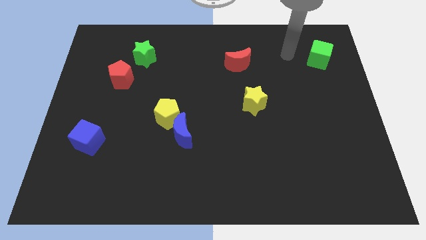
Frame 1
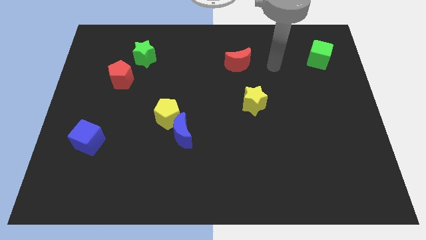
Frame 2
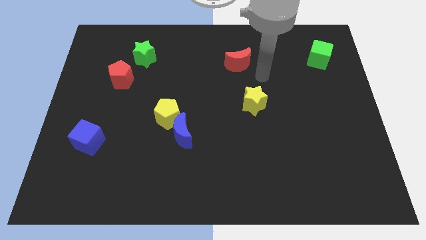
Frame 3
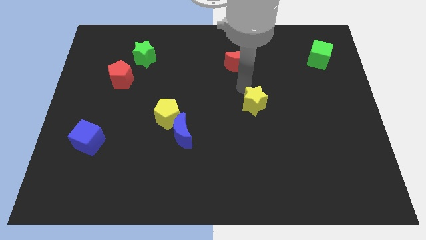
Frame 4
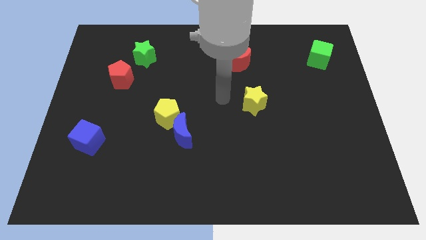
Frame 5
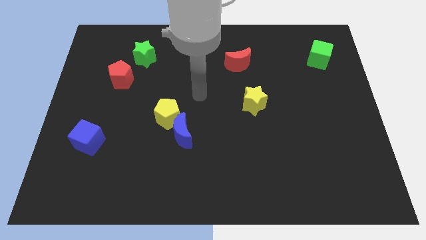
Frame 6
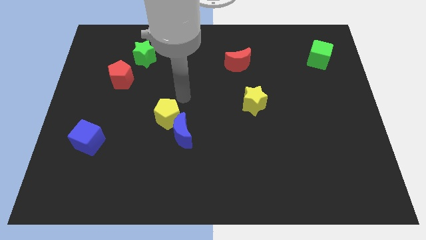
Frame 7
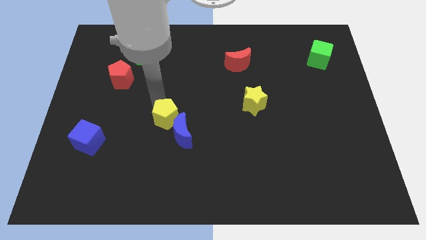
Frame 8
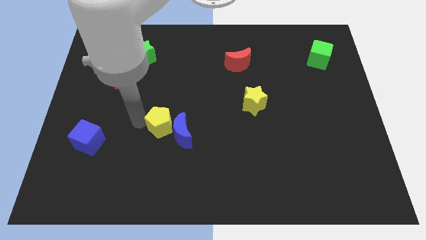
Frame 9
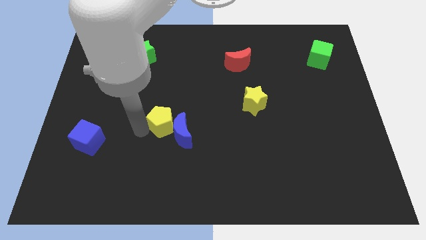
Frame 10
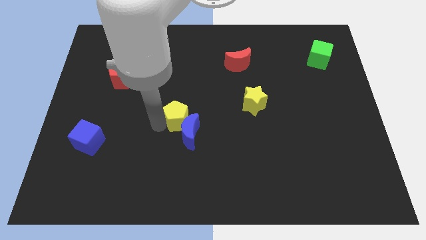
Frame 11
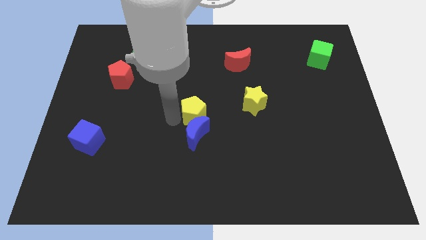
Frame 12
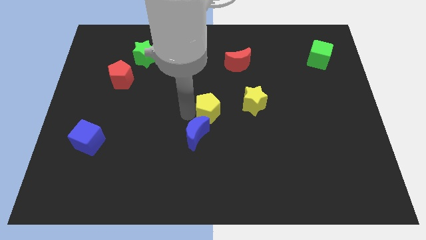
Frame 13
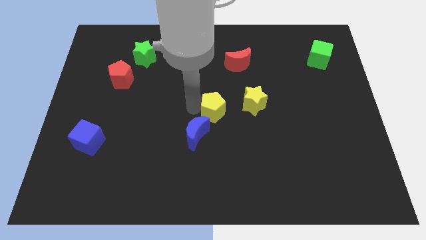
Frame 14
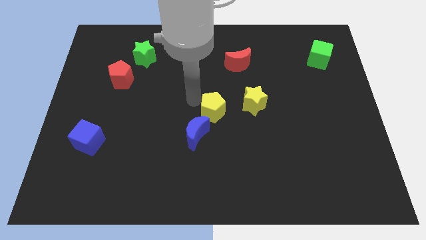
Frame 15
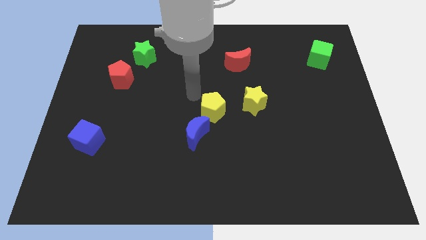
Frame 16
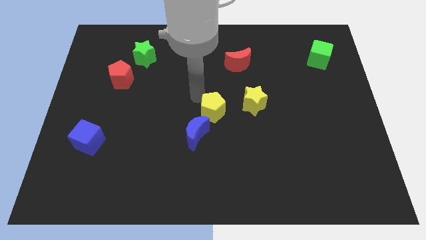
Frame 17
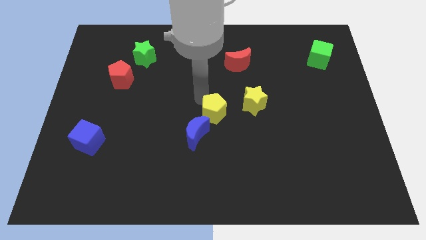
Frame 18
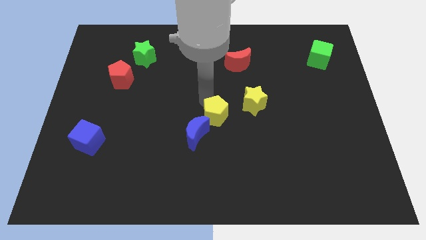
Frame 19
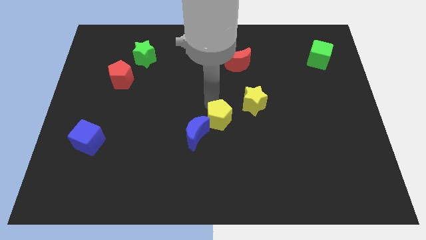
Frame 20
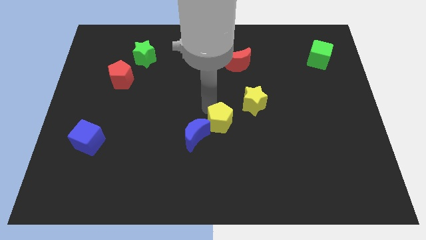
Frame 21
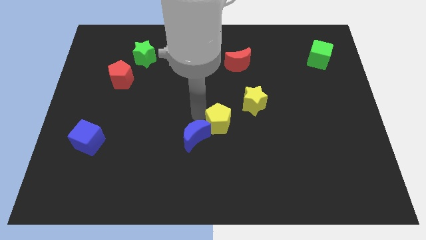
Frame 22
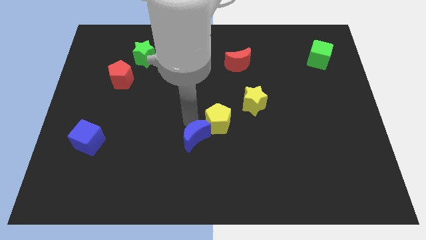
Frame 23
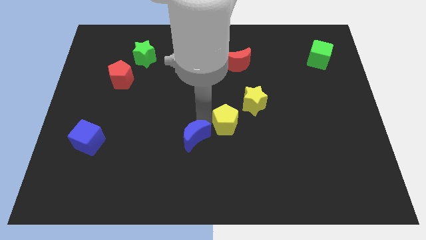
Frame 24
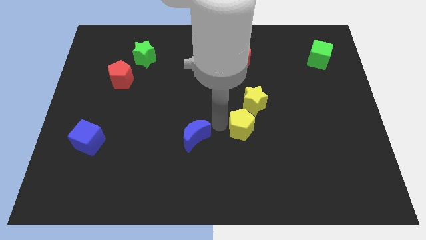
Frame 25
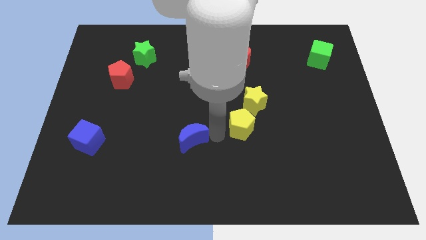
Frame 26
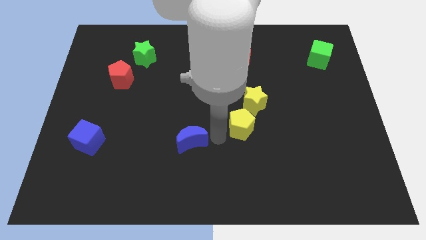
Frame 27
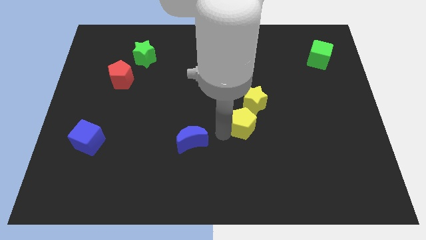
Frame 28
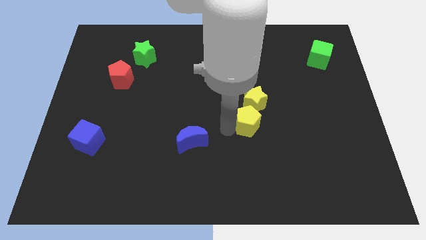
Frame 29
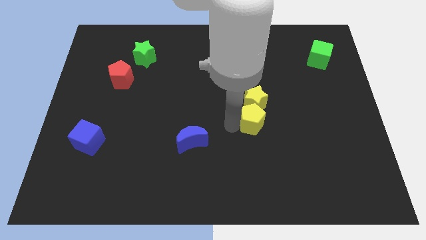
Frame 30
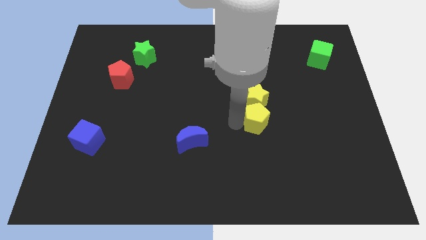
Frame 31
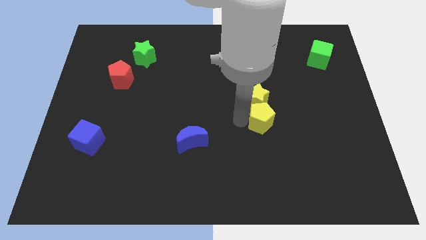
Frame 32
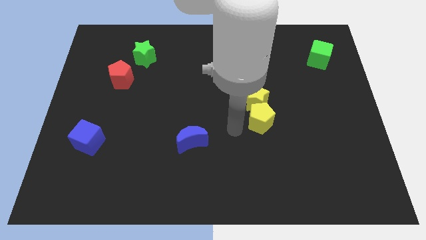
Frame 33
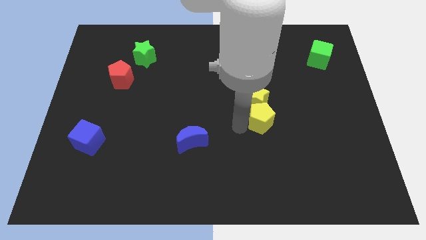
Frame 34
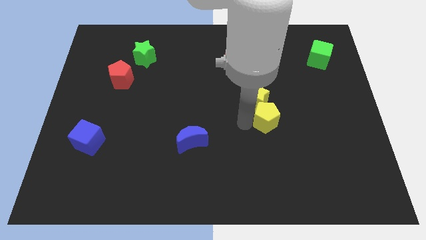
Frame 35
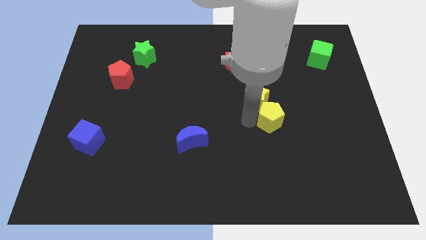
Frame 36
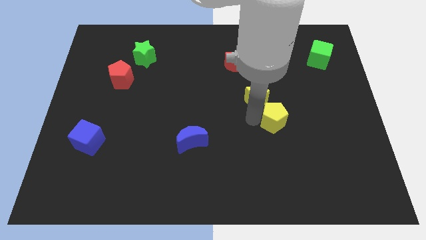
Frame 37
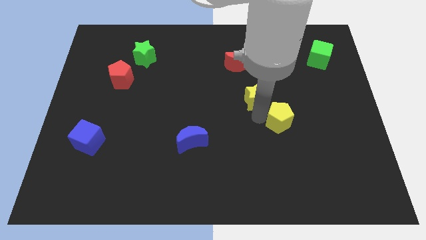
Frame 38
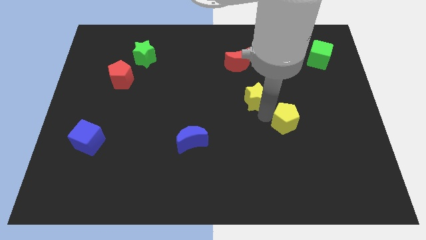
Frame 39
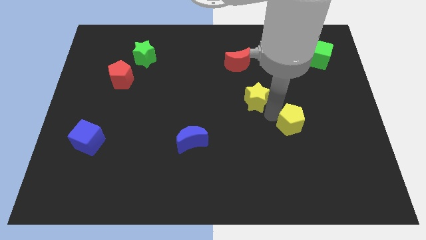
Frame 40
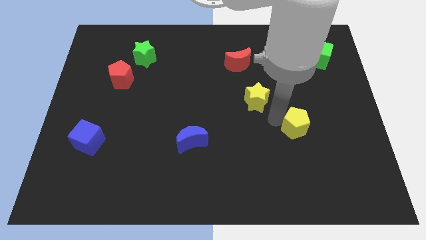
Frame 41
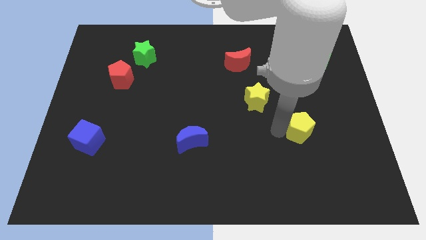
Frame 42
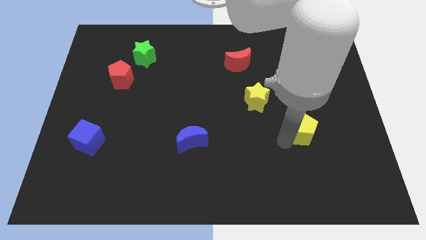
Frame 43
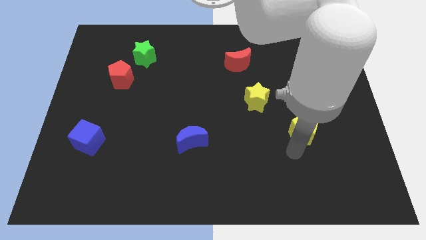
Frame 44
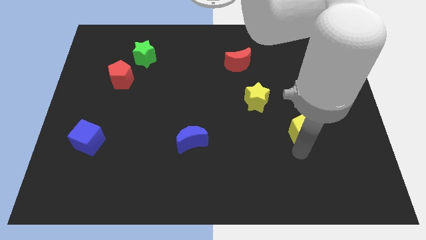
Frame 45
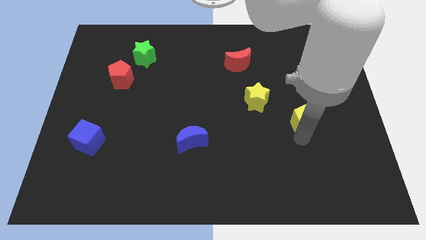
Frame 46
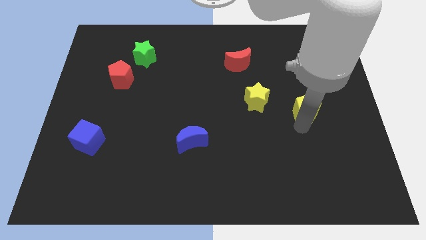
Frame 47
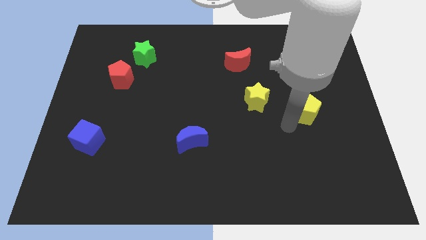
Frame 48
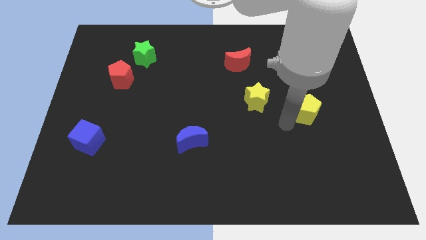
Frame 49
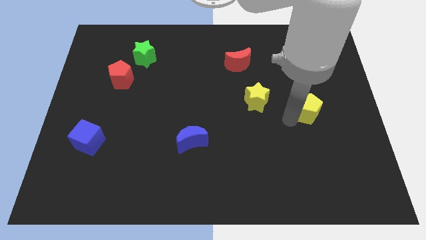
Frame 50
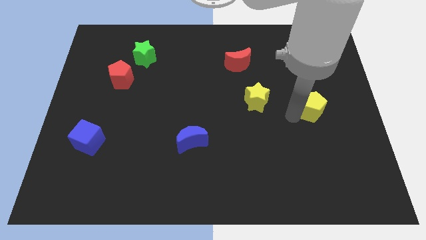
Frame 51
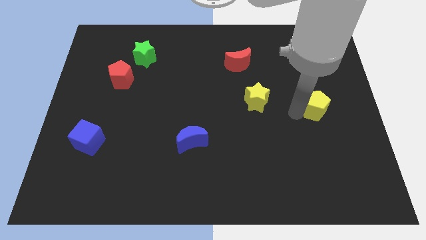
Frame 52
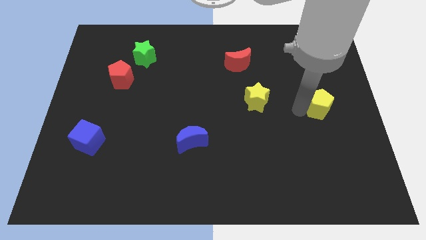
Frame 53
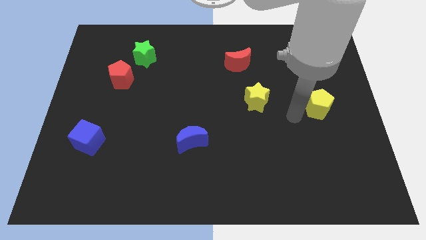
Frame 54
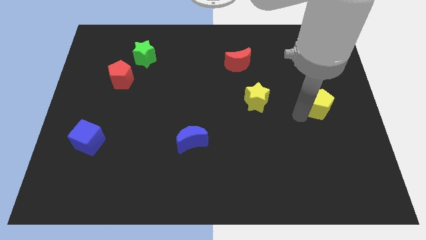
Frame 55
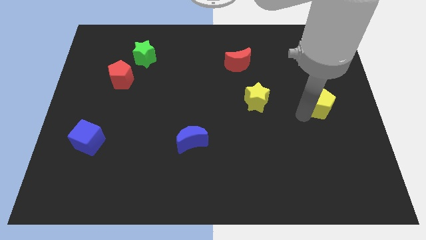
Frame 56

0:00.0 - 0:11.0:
put the yellow pentagon to the center right

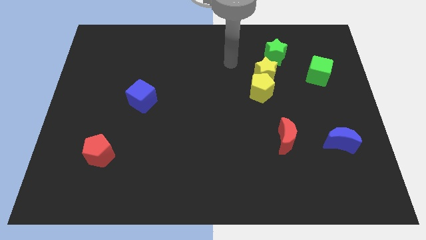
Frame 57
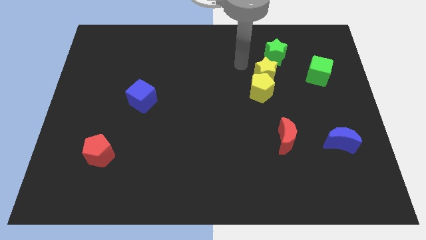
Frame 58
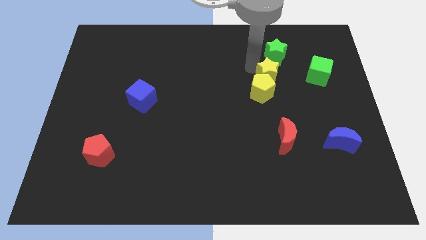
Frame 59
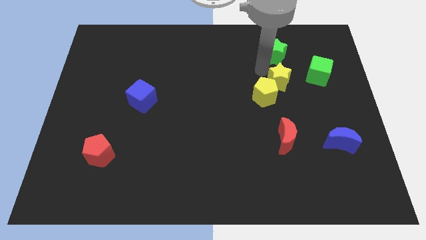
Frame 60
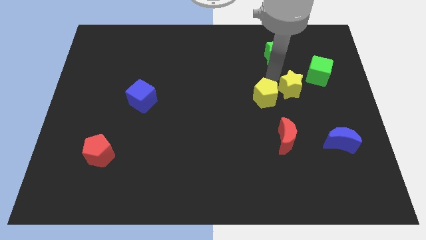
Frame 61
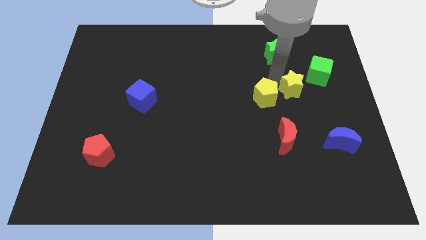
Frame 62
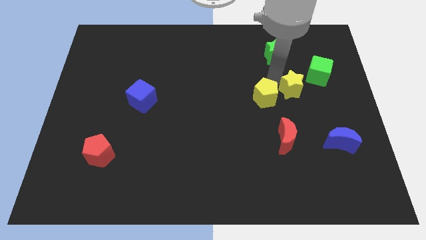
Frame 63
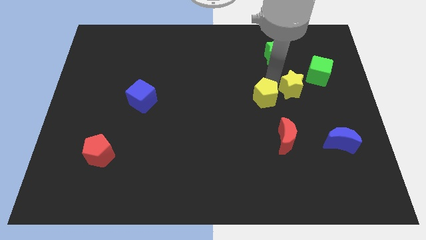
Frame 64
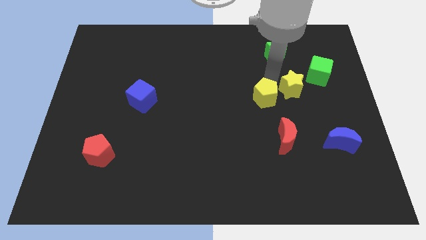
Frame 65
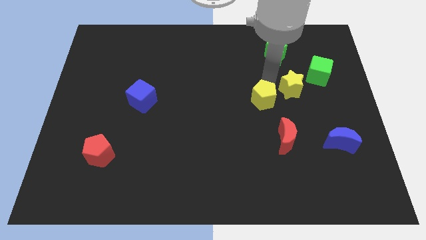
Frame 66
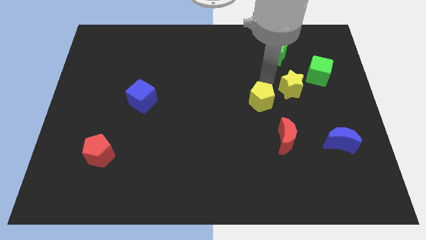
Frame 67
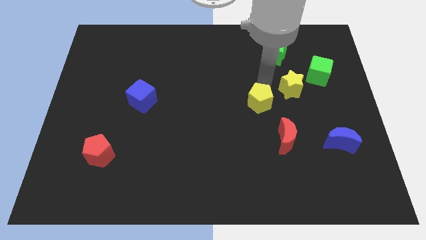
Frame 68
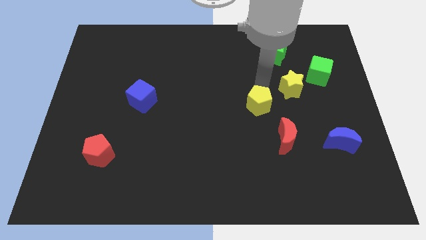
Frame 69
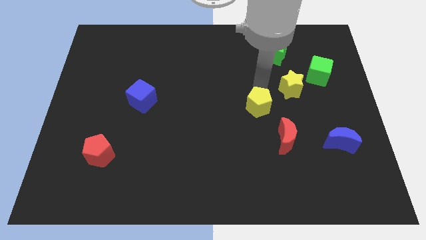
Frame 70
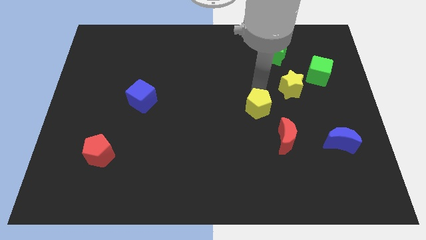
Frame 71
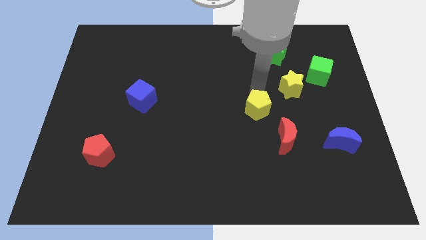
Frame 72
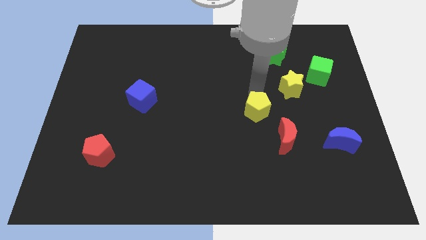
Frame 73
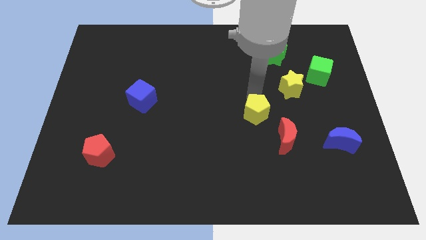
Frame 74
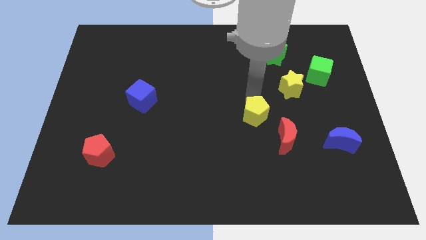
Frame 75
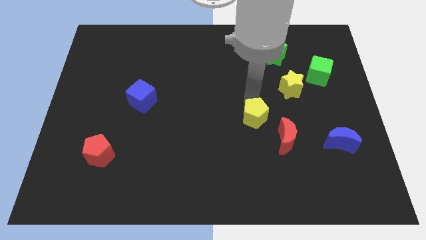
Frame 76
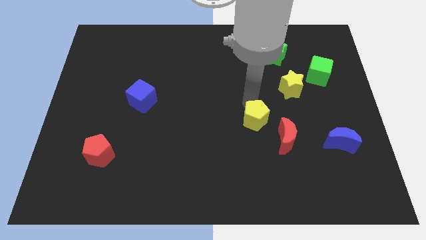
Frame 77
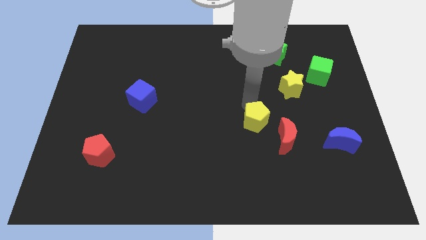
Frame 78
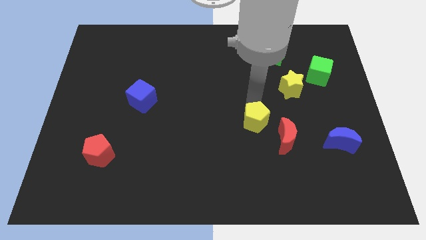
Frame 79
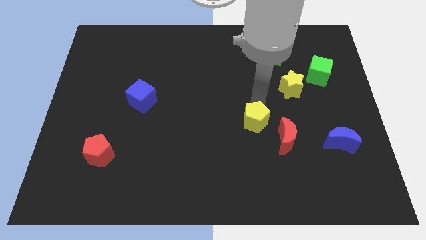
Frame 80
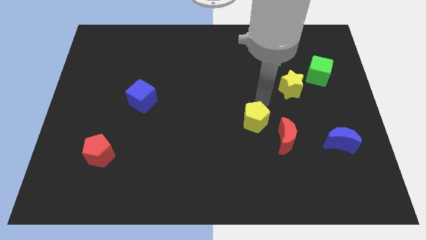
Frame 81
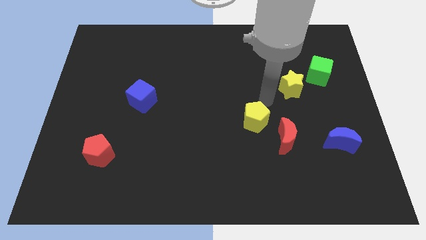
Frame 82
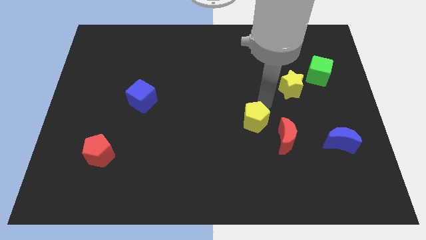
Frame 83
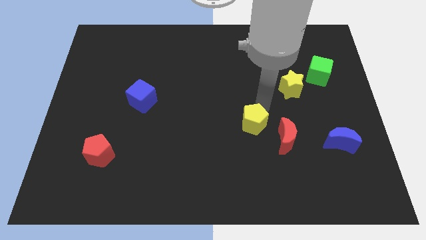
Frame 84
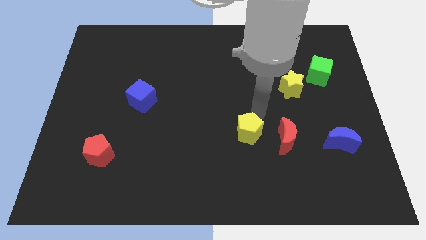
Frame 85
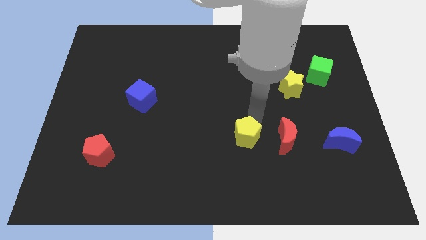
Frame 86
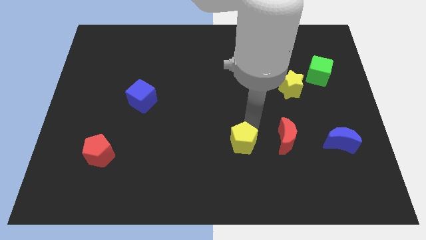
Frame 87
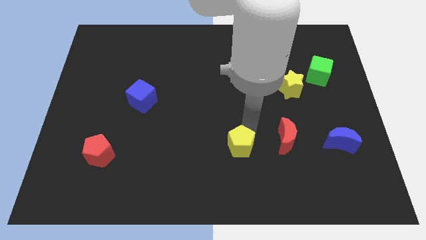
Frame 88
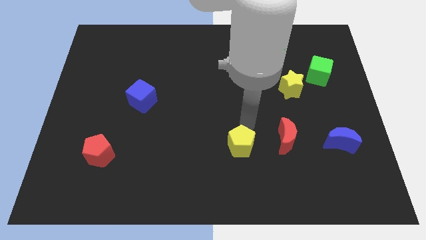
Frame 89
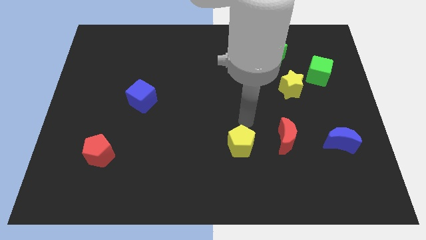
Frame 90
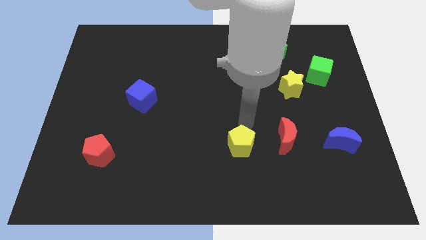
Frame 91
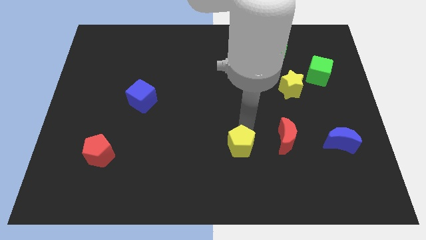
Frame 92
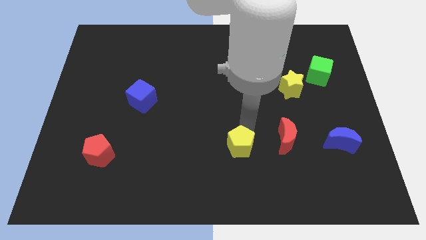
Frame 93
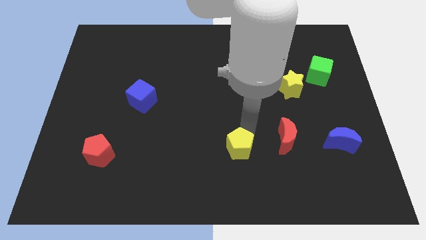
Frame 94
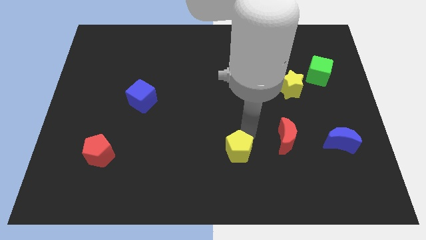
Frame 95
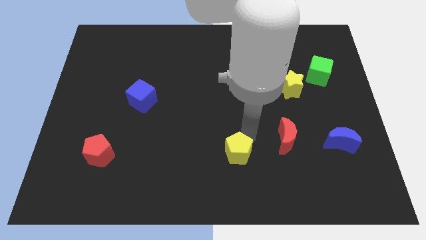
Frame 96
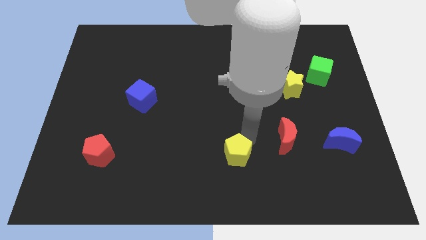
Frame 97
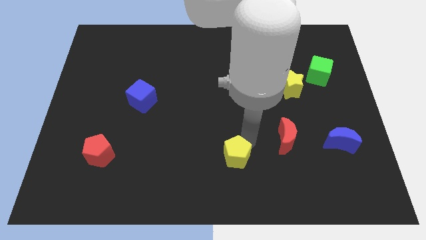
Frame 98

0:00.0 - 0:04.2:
push the yellow pentagon to the bottom
